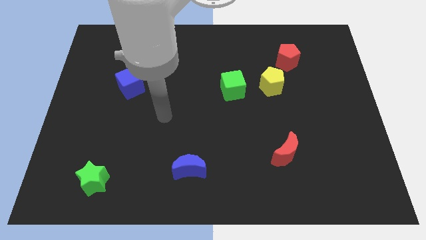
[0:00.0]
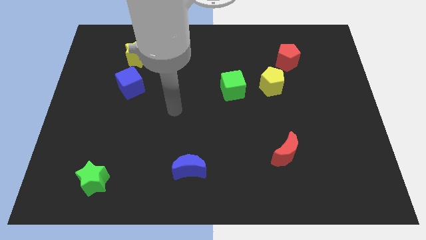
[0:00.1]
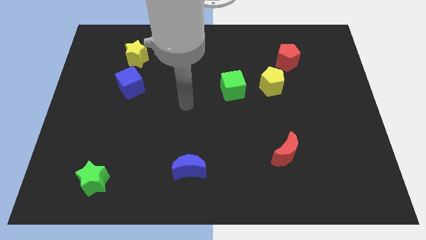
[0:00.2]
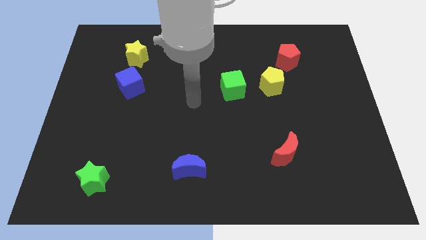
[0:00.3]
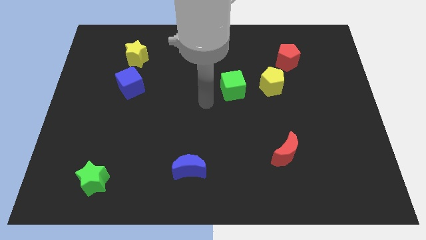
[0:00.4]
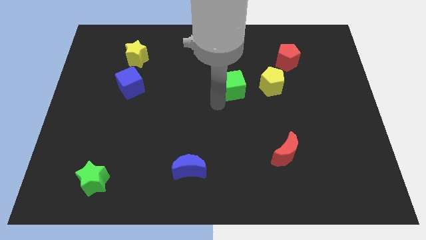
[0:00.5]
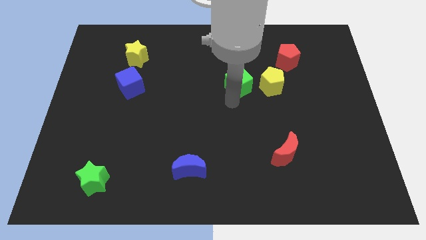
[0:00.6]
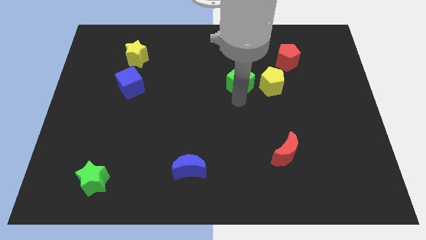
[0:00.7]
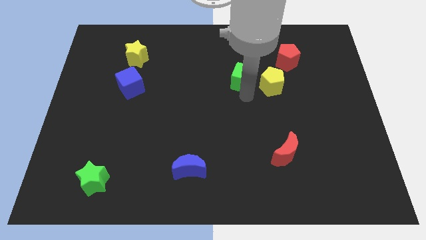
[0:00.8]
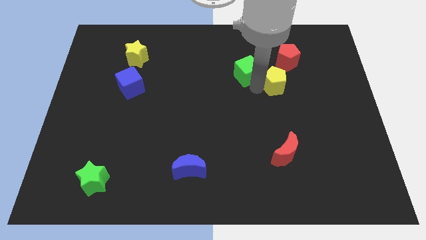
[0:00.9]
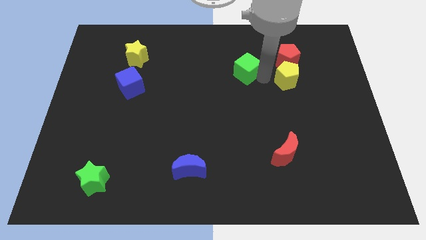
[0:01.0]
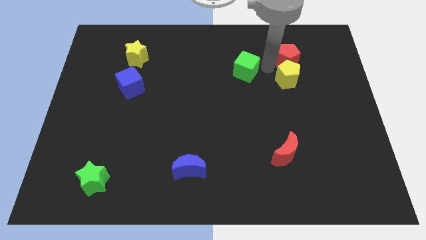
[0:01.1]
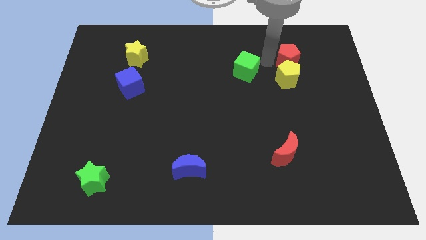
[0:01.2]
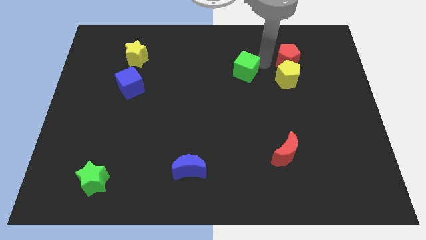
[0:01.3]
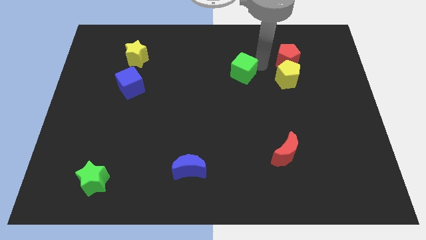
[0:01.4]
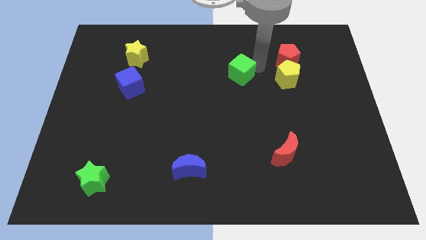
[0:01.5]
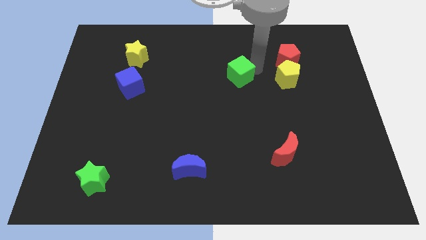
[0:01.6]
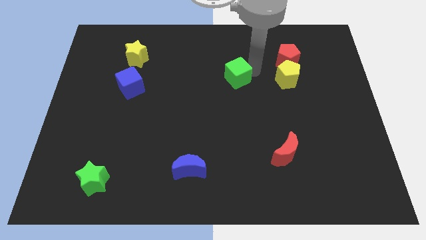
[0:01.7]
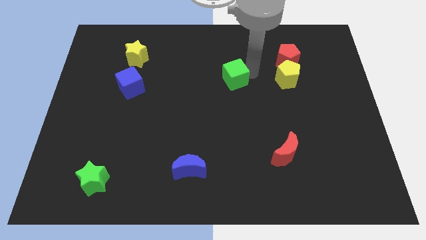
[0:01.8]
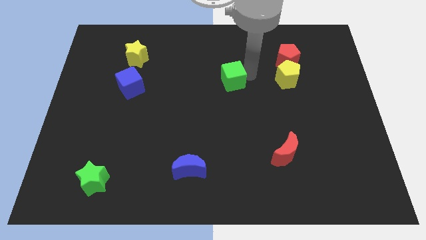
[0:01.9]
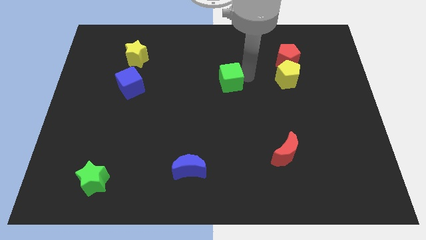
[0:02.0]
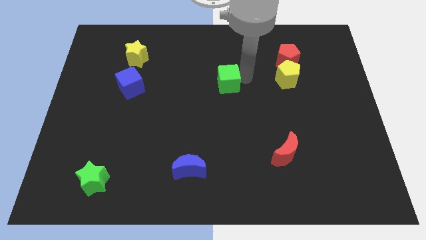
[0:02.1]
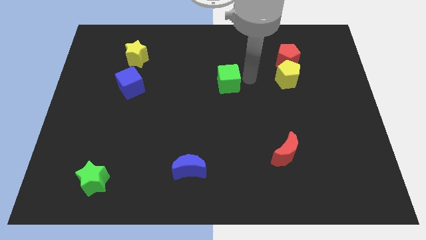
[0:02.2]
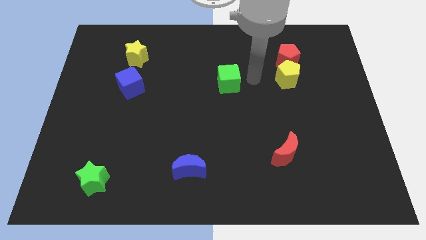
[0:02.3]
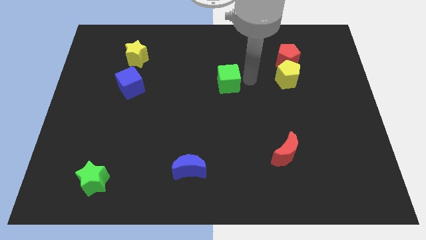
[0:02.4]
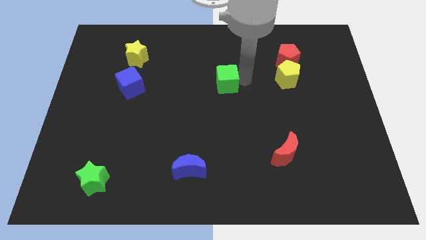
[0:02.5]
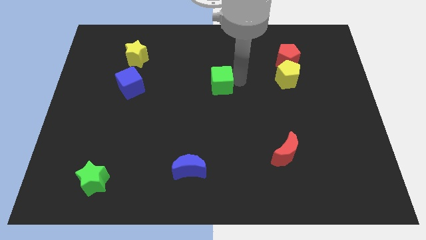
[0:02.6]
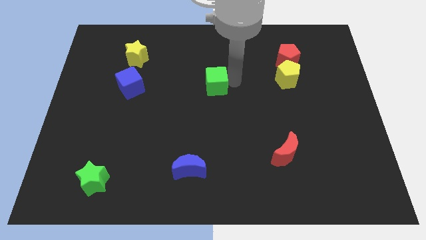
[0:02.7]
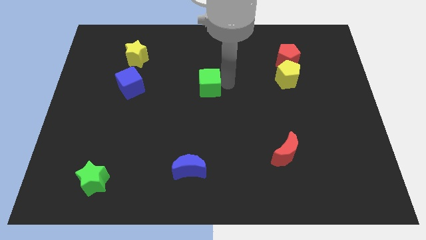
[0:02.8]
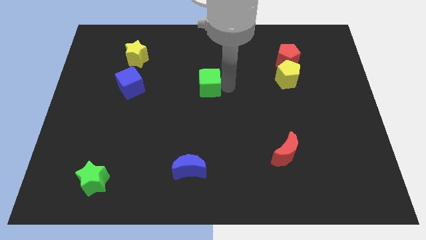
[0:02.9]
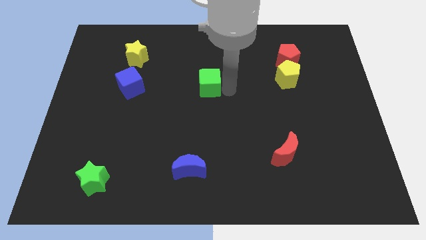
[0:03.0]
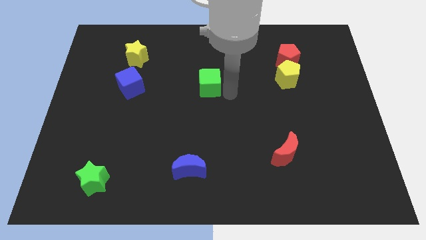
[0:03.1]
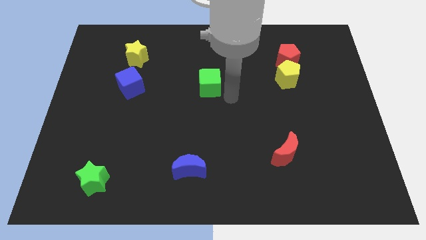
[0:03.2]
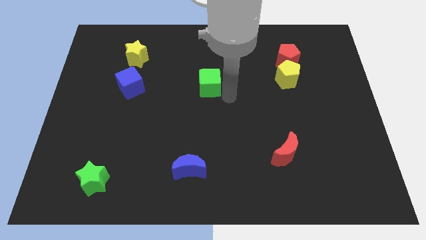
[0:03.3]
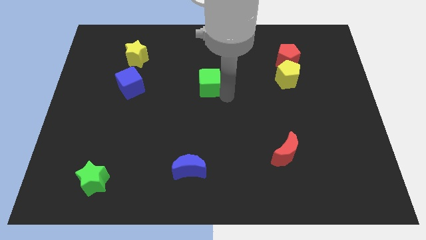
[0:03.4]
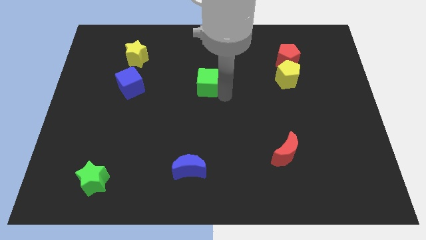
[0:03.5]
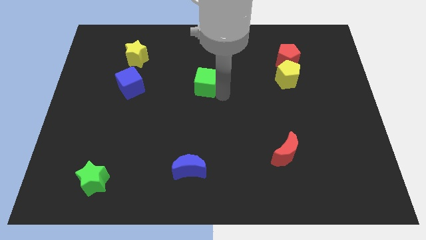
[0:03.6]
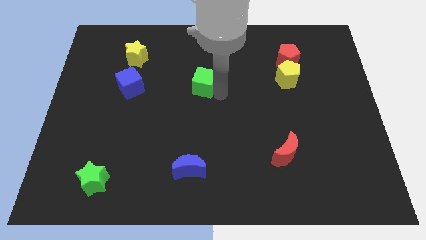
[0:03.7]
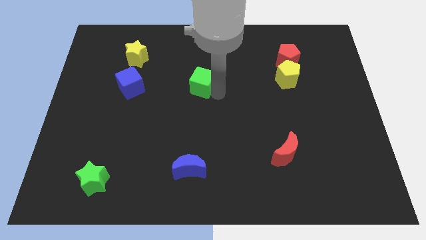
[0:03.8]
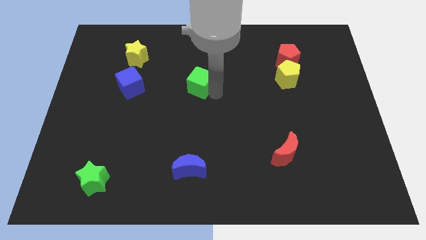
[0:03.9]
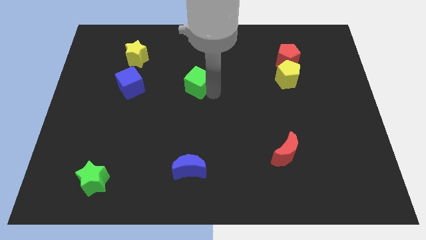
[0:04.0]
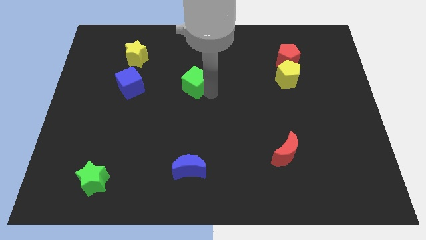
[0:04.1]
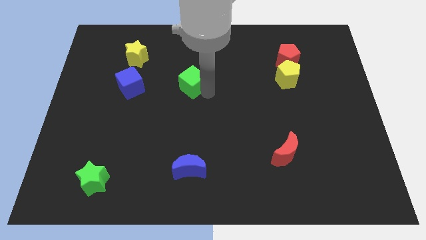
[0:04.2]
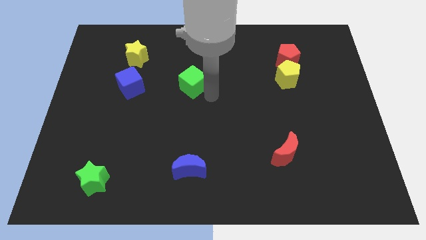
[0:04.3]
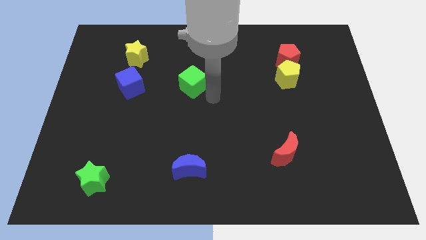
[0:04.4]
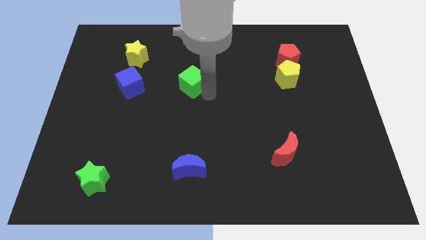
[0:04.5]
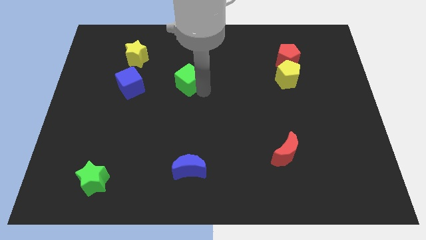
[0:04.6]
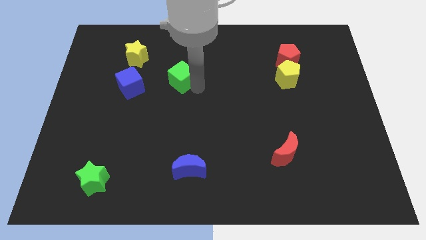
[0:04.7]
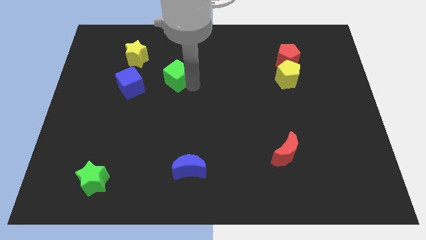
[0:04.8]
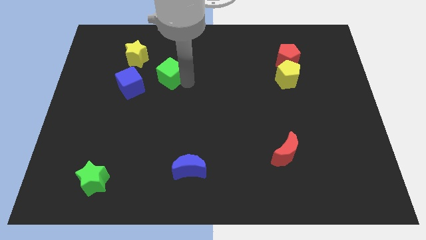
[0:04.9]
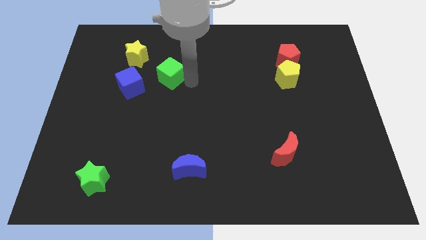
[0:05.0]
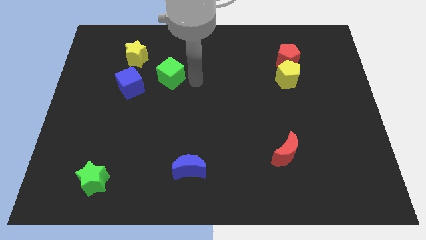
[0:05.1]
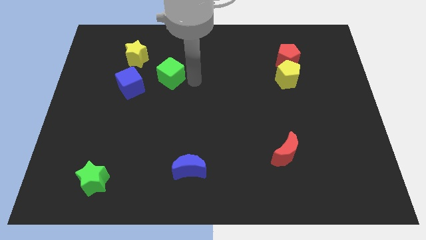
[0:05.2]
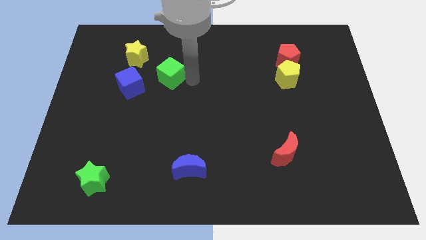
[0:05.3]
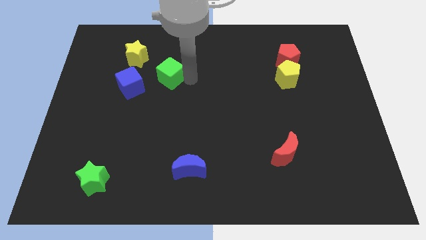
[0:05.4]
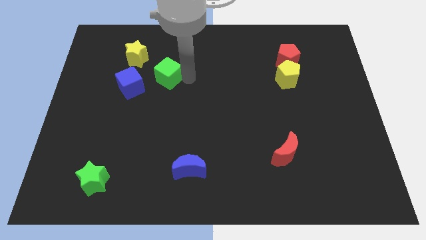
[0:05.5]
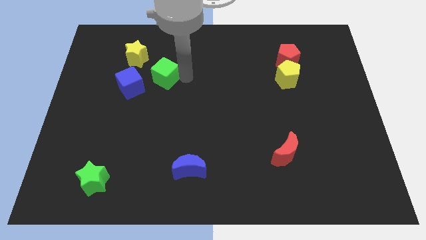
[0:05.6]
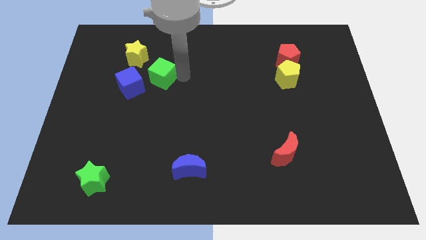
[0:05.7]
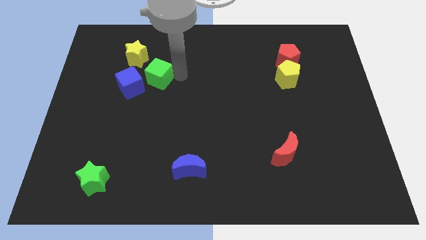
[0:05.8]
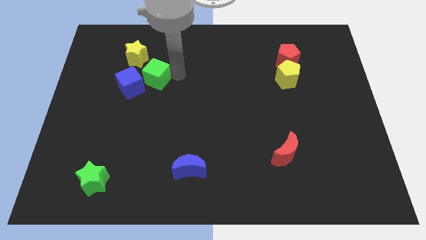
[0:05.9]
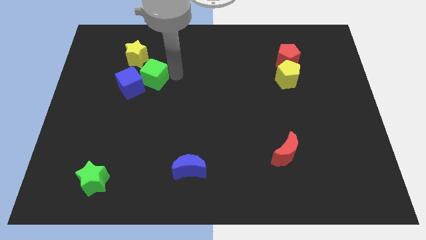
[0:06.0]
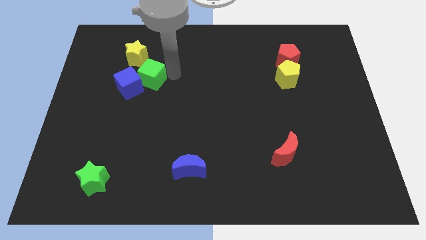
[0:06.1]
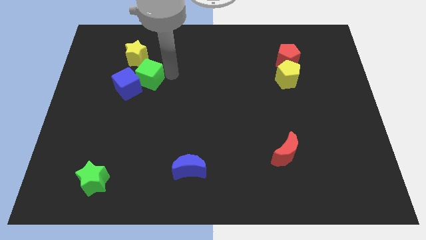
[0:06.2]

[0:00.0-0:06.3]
slide the green cube left

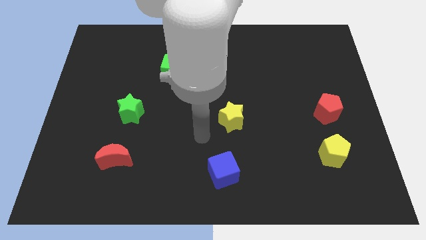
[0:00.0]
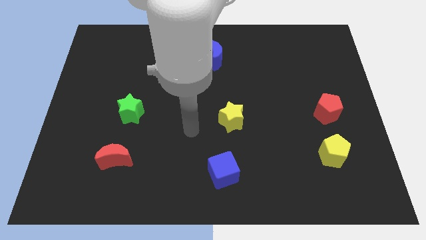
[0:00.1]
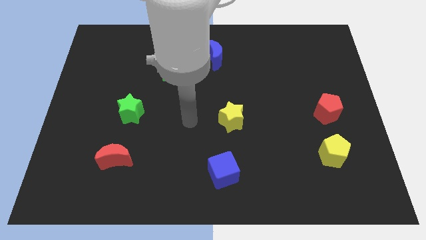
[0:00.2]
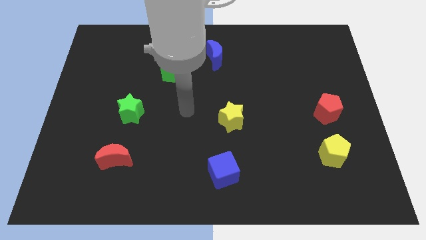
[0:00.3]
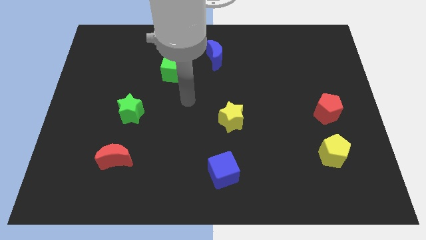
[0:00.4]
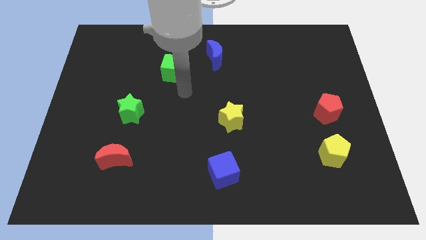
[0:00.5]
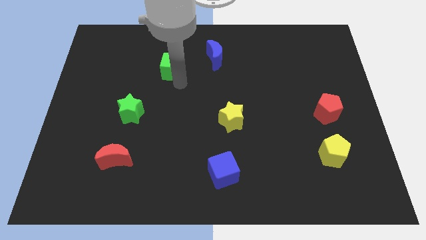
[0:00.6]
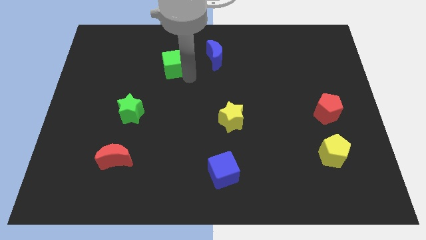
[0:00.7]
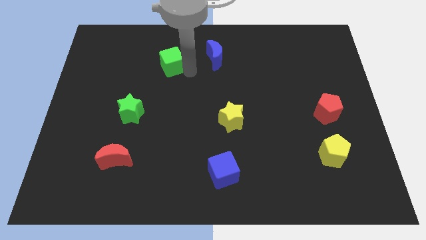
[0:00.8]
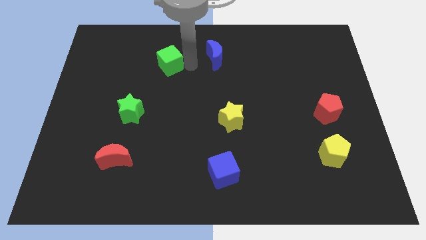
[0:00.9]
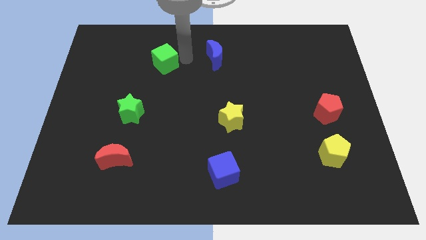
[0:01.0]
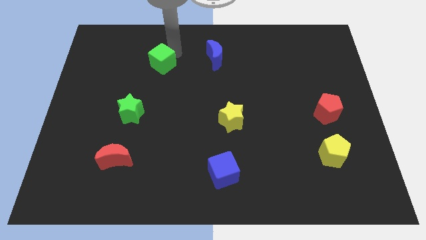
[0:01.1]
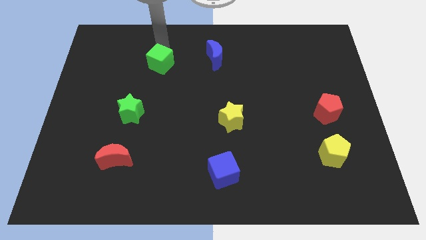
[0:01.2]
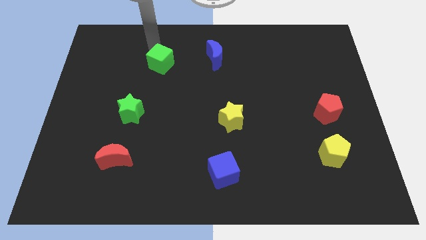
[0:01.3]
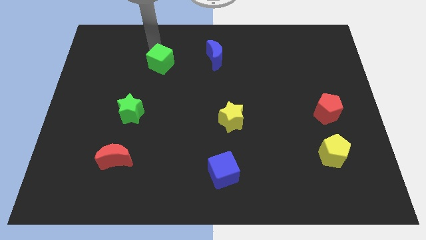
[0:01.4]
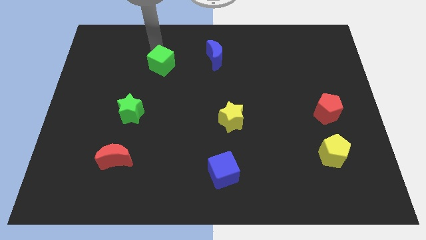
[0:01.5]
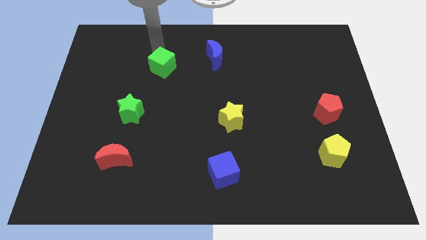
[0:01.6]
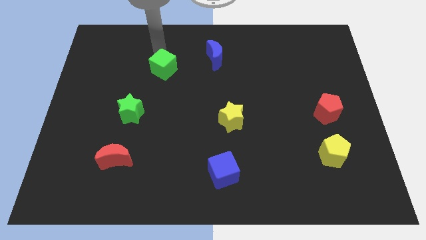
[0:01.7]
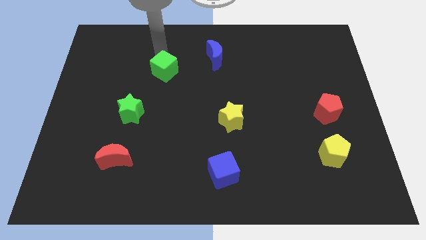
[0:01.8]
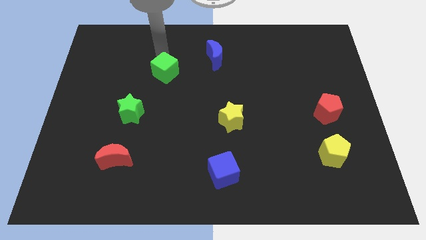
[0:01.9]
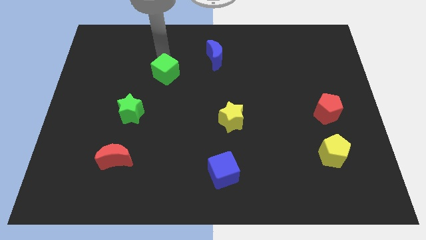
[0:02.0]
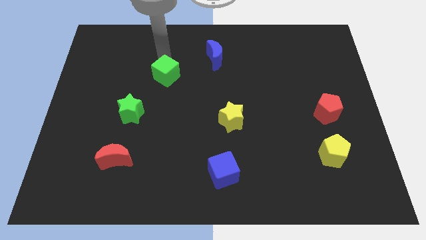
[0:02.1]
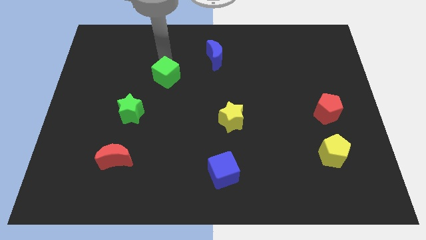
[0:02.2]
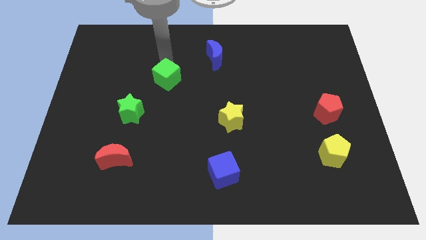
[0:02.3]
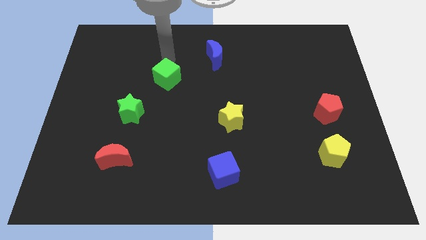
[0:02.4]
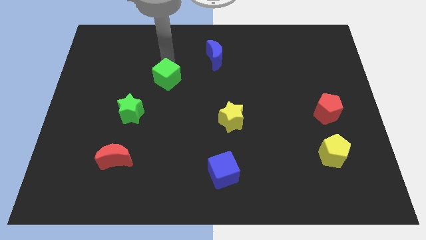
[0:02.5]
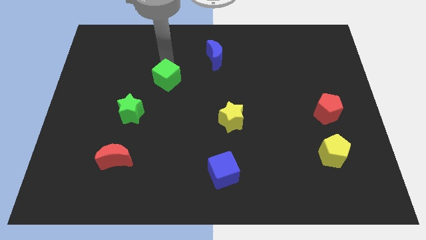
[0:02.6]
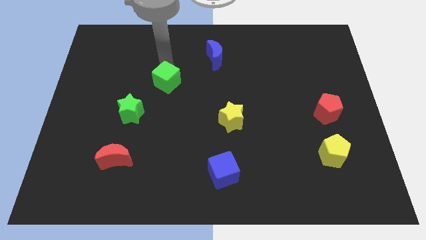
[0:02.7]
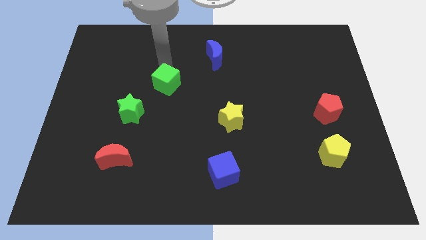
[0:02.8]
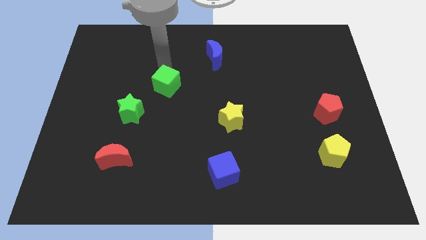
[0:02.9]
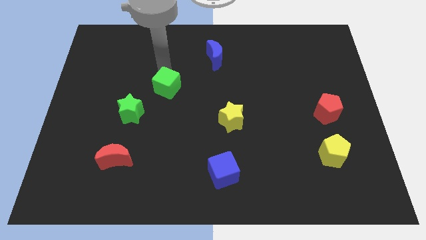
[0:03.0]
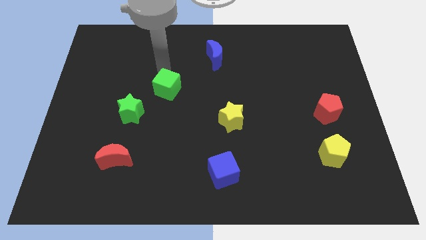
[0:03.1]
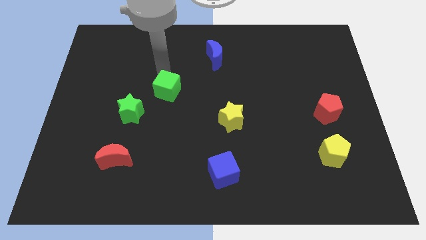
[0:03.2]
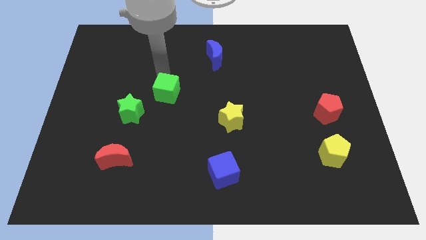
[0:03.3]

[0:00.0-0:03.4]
slightly slide the green cube down
